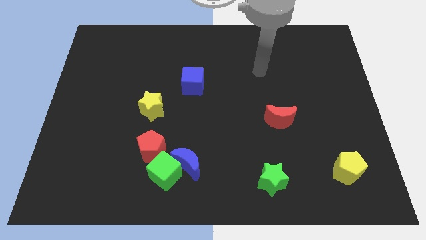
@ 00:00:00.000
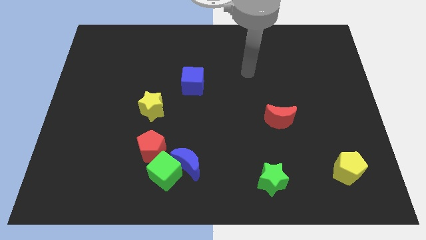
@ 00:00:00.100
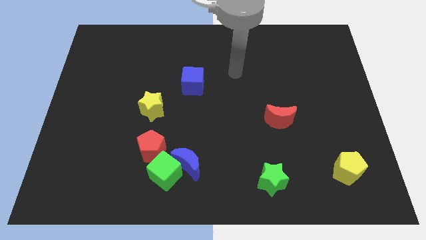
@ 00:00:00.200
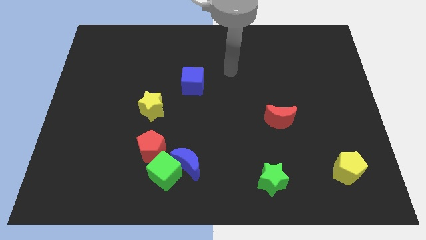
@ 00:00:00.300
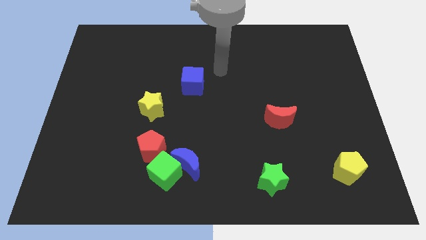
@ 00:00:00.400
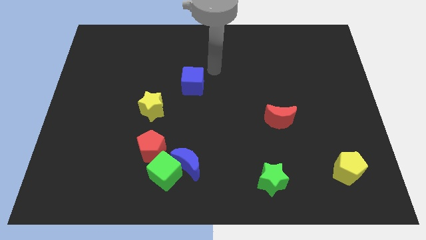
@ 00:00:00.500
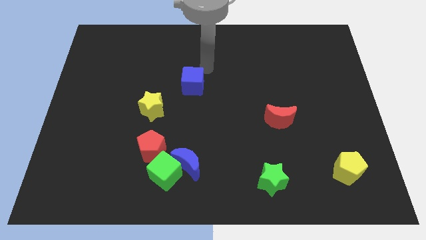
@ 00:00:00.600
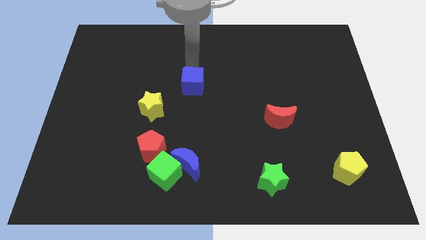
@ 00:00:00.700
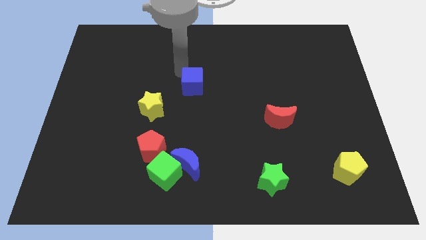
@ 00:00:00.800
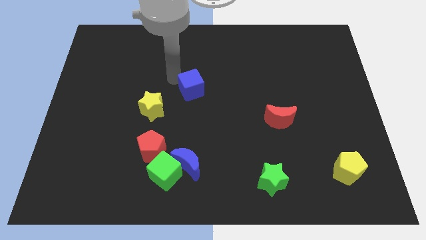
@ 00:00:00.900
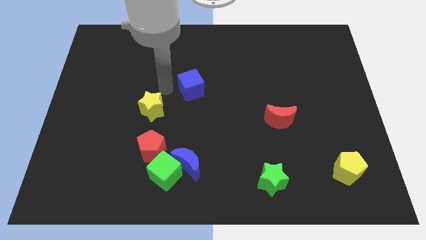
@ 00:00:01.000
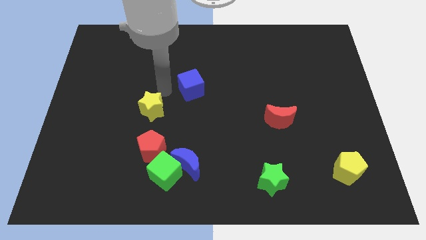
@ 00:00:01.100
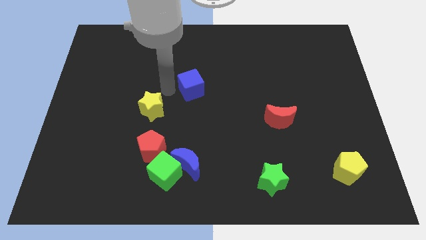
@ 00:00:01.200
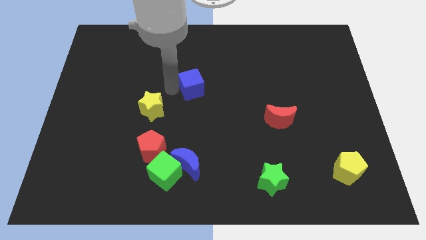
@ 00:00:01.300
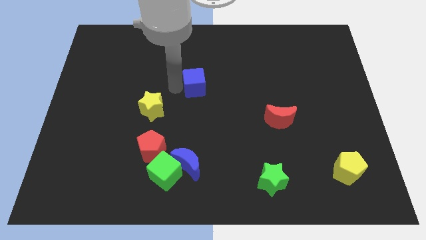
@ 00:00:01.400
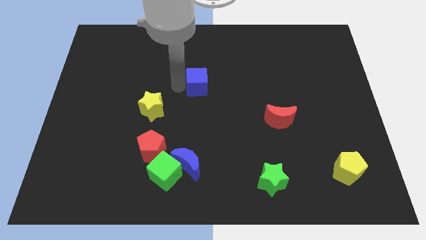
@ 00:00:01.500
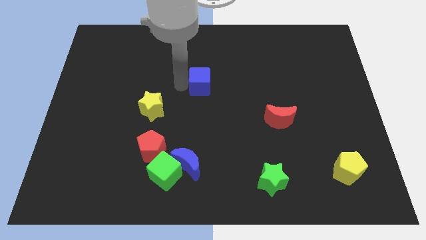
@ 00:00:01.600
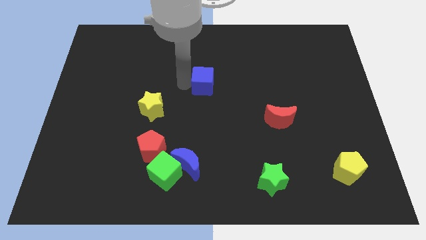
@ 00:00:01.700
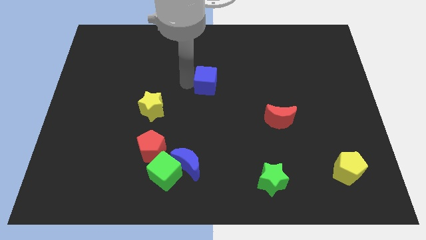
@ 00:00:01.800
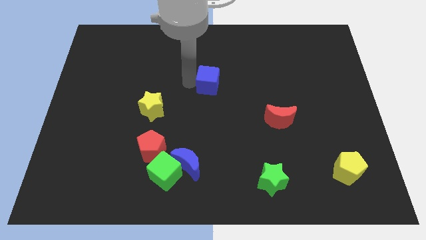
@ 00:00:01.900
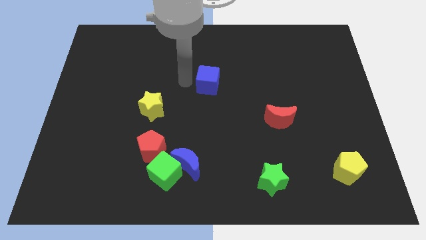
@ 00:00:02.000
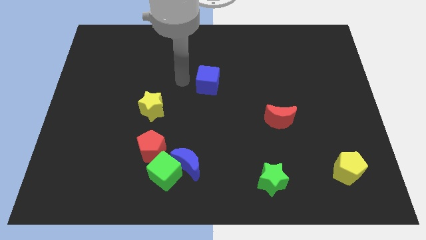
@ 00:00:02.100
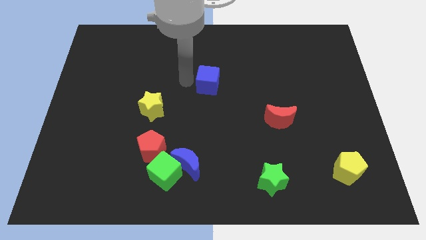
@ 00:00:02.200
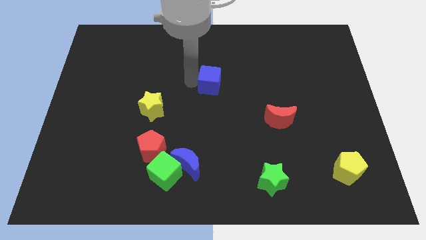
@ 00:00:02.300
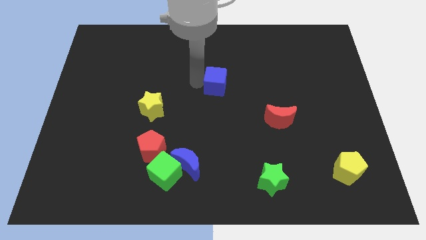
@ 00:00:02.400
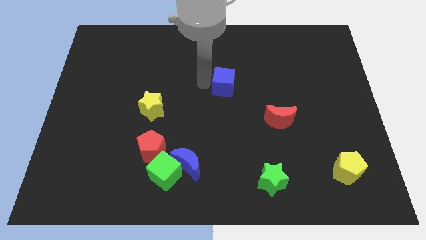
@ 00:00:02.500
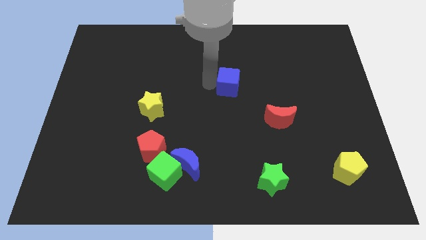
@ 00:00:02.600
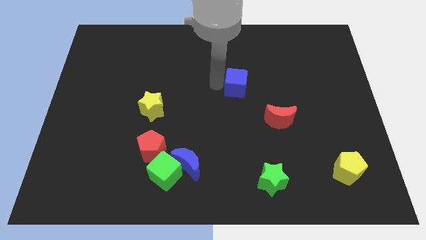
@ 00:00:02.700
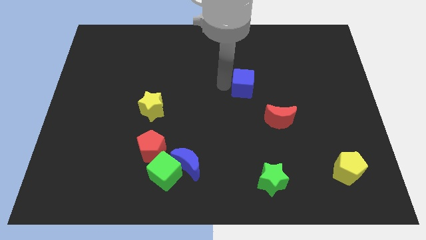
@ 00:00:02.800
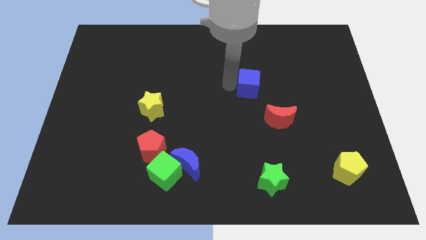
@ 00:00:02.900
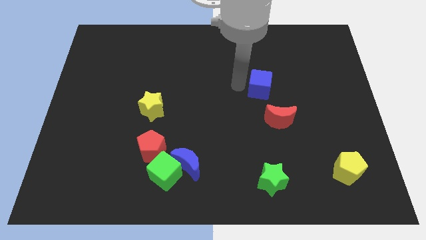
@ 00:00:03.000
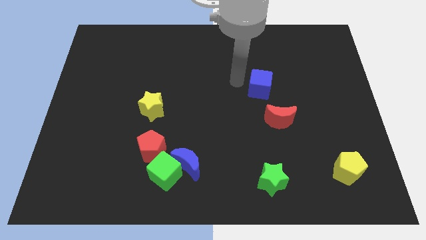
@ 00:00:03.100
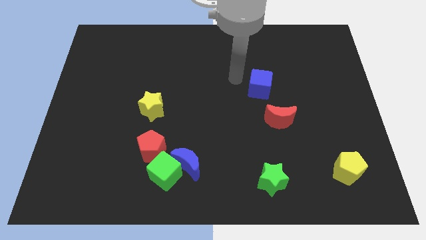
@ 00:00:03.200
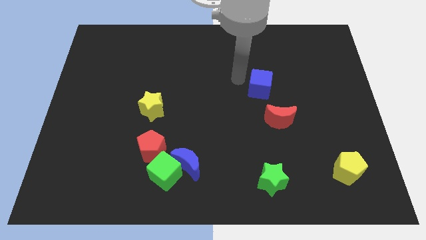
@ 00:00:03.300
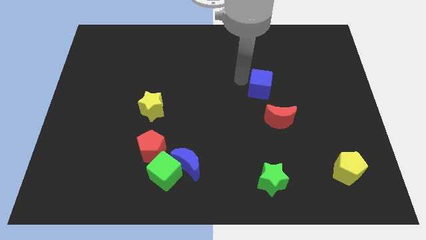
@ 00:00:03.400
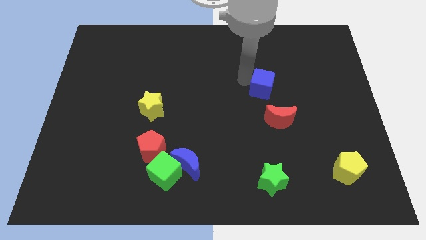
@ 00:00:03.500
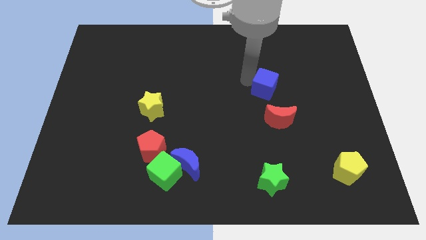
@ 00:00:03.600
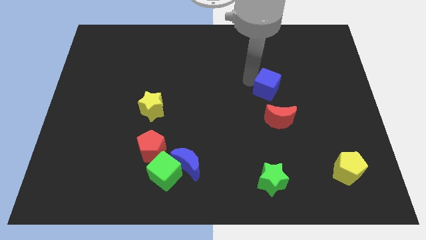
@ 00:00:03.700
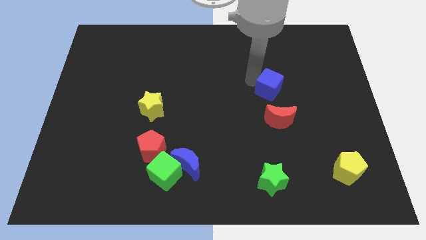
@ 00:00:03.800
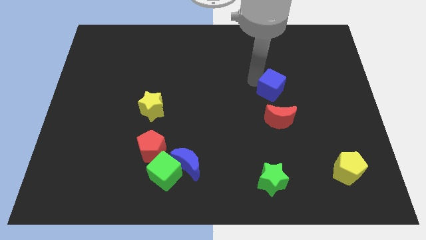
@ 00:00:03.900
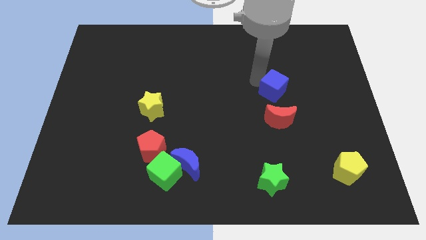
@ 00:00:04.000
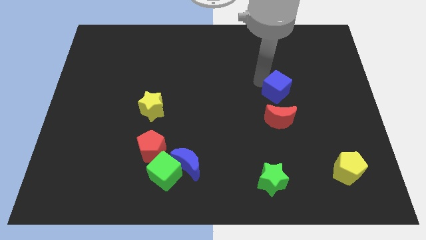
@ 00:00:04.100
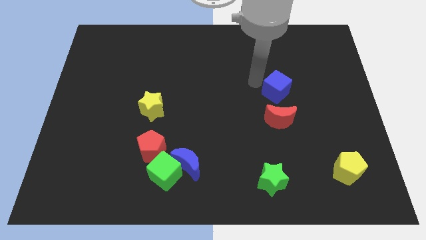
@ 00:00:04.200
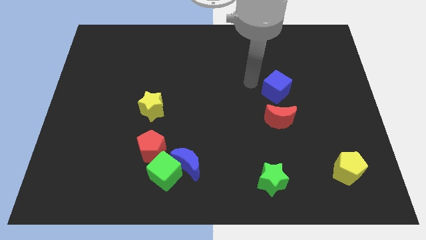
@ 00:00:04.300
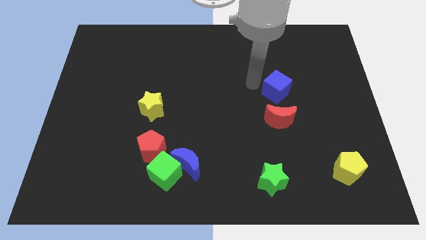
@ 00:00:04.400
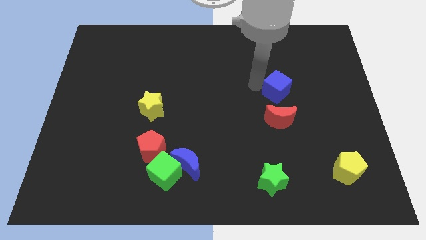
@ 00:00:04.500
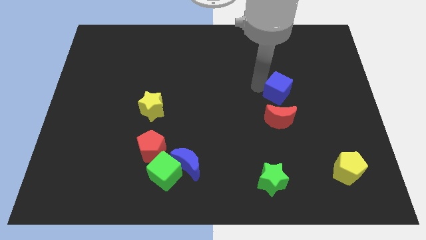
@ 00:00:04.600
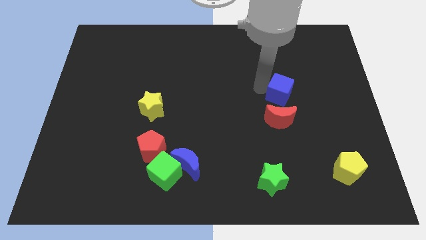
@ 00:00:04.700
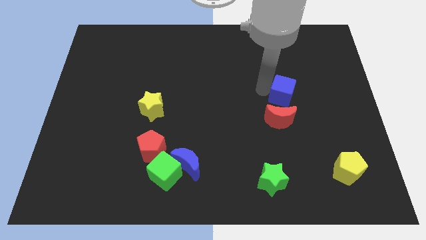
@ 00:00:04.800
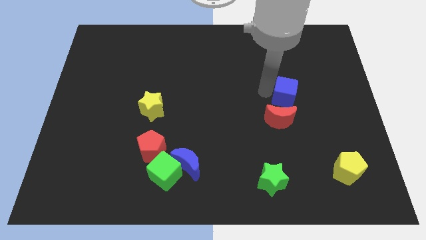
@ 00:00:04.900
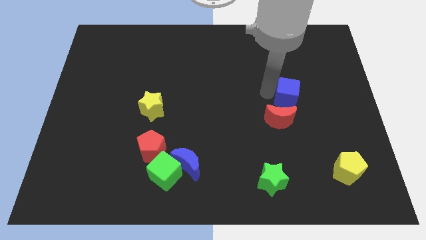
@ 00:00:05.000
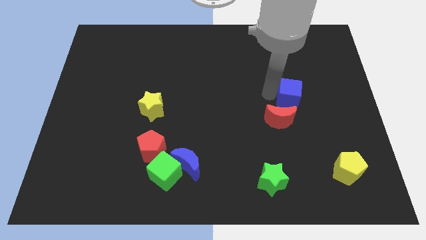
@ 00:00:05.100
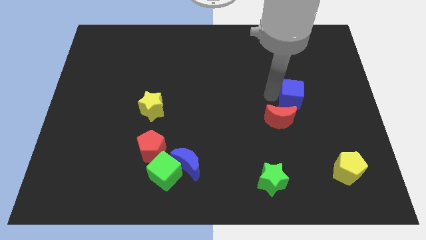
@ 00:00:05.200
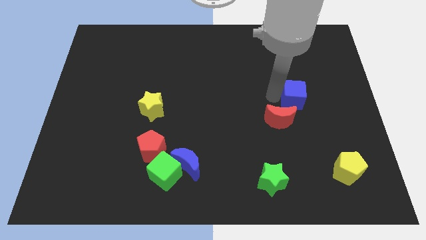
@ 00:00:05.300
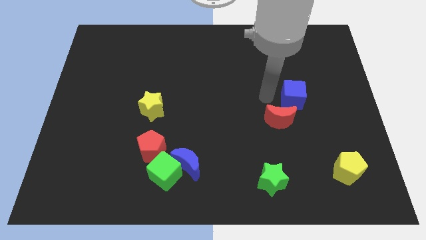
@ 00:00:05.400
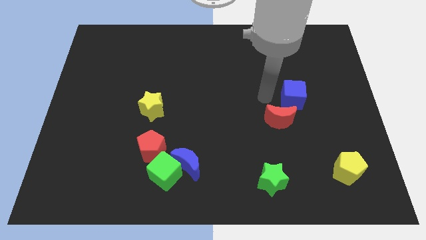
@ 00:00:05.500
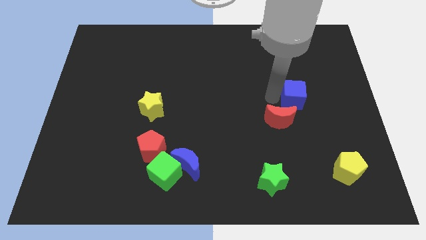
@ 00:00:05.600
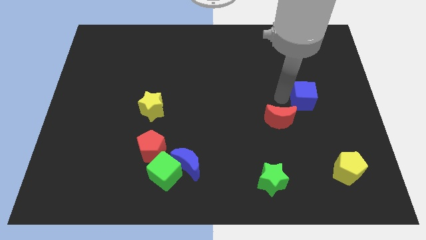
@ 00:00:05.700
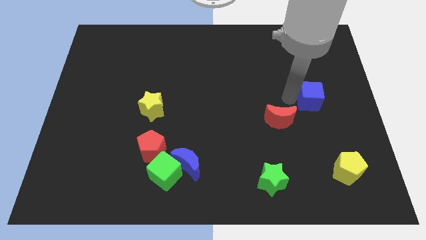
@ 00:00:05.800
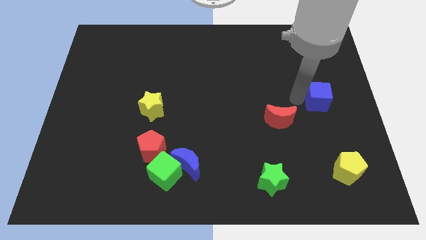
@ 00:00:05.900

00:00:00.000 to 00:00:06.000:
put the blue cube to the center right

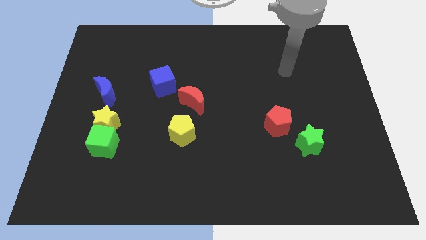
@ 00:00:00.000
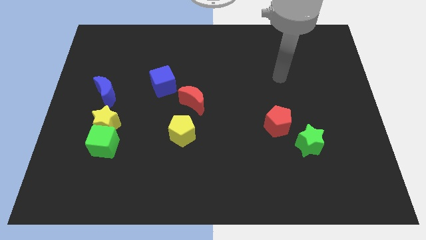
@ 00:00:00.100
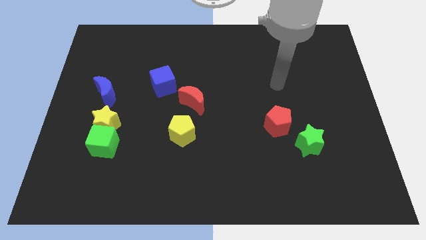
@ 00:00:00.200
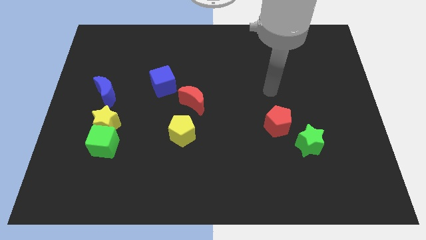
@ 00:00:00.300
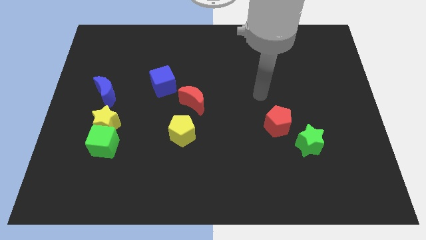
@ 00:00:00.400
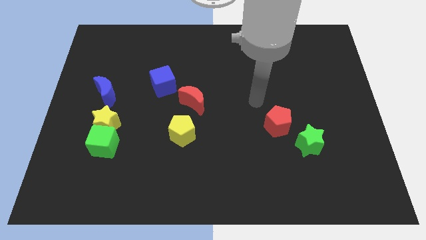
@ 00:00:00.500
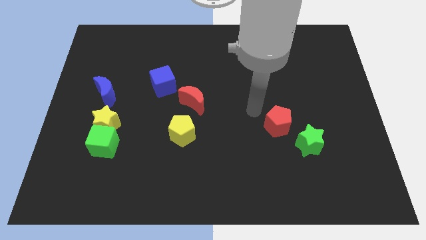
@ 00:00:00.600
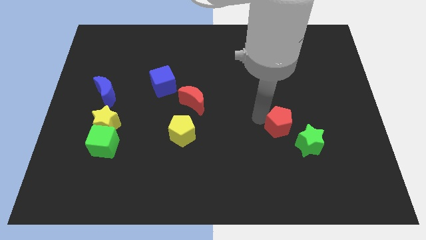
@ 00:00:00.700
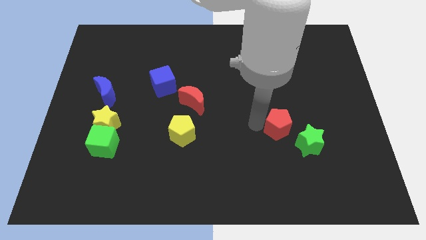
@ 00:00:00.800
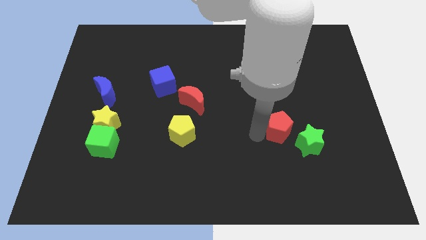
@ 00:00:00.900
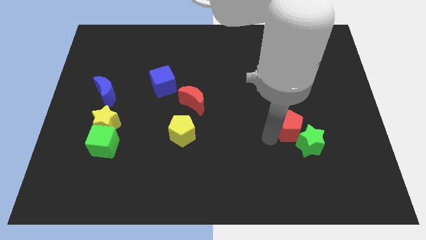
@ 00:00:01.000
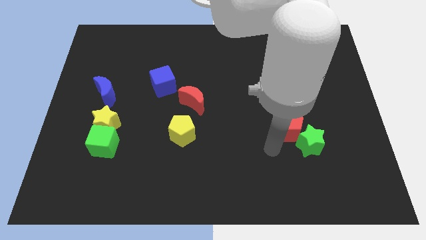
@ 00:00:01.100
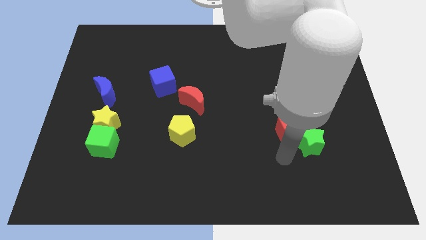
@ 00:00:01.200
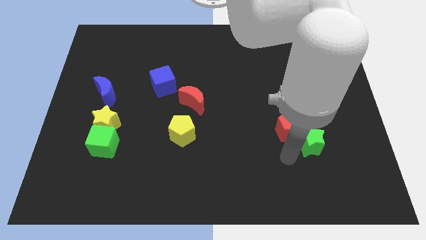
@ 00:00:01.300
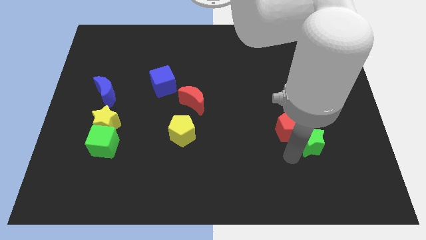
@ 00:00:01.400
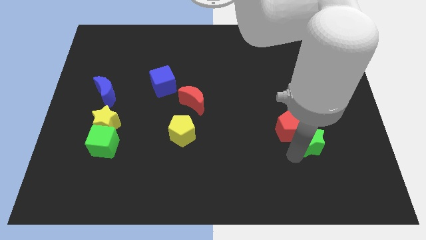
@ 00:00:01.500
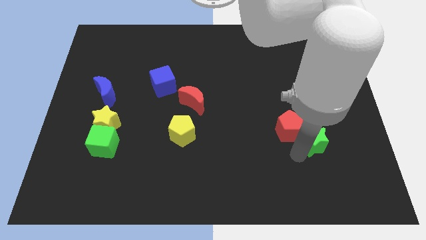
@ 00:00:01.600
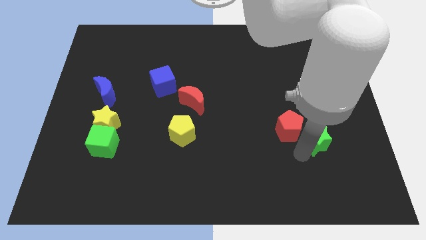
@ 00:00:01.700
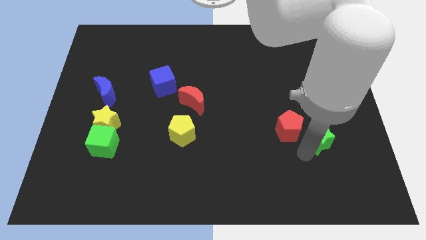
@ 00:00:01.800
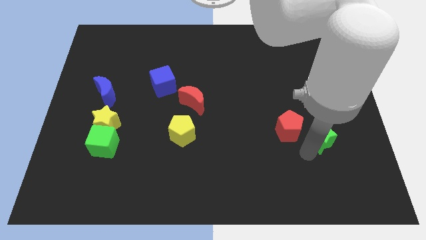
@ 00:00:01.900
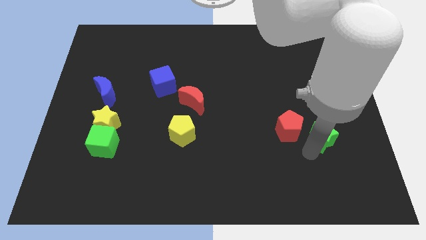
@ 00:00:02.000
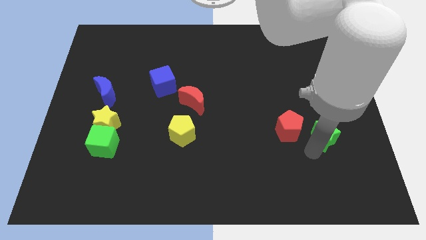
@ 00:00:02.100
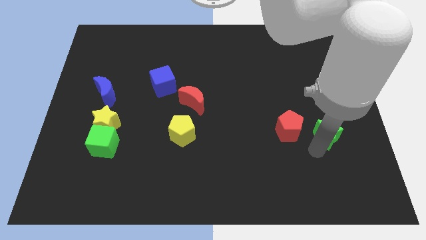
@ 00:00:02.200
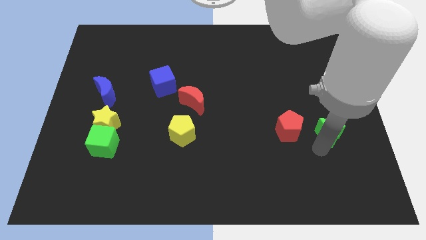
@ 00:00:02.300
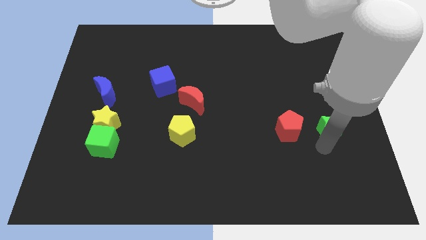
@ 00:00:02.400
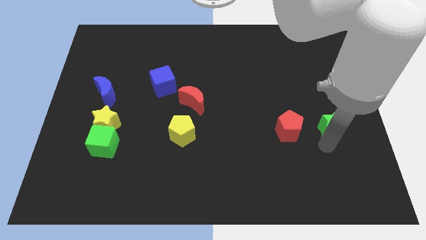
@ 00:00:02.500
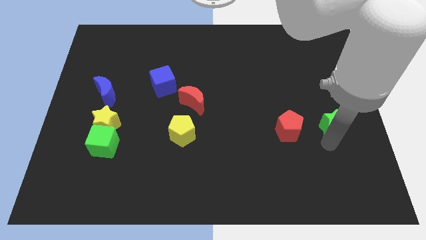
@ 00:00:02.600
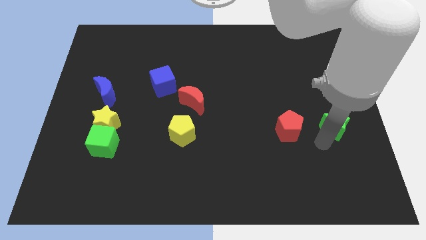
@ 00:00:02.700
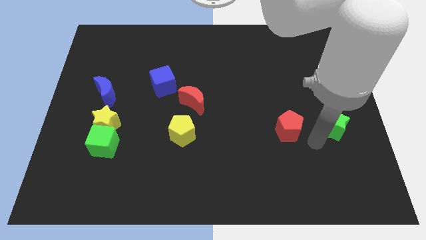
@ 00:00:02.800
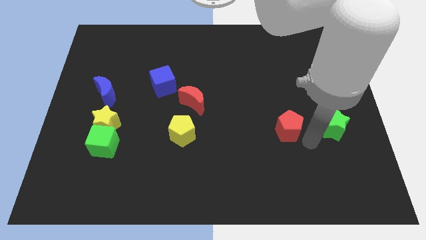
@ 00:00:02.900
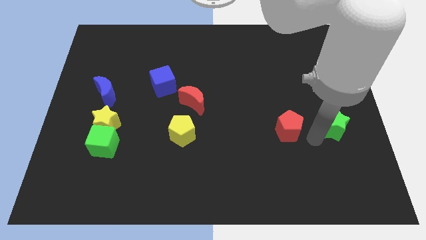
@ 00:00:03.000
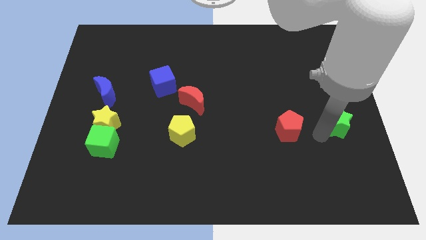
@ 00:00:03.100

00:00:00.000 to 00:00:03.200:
push the green star to the center right
